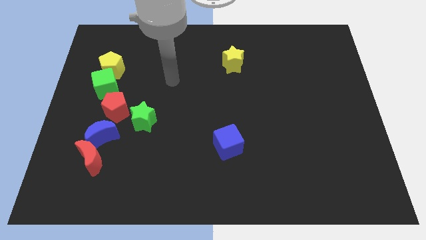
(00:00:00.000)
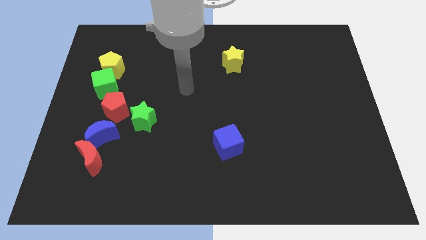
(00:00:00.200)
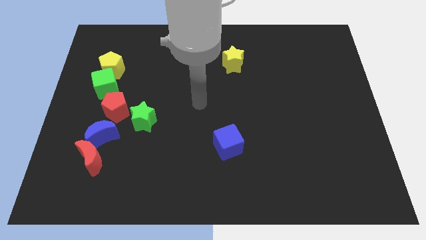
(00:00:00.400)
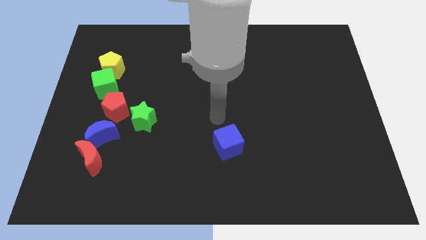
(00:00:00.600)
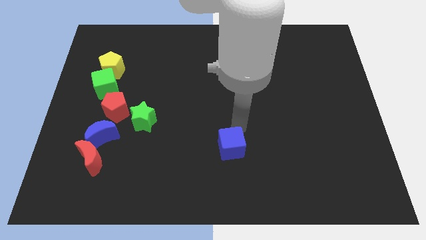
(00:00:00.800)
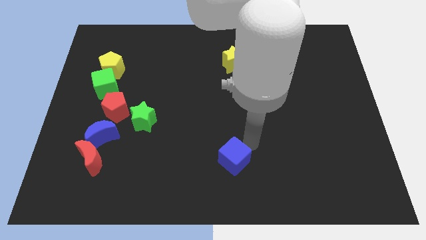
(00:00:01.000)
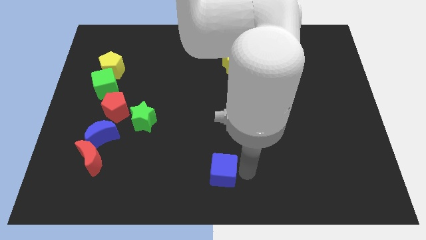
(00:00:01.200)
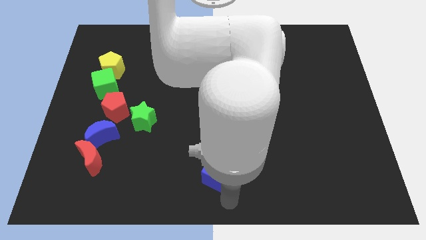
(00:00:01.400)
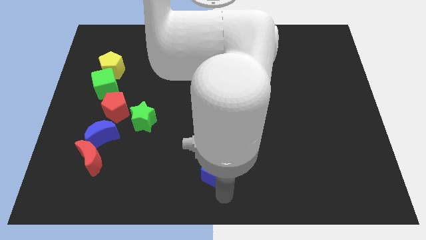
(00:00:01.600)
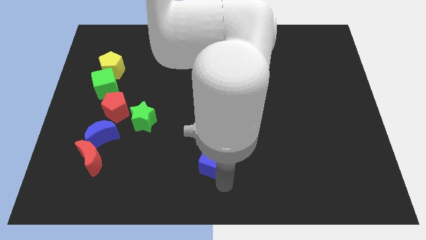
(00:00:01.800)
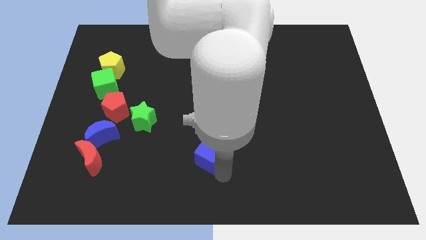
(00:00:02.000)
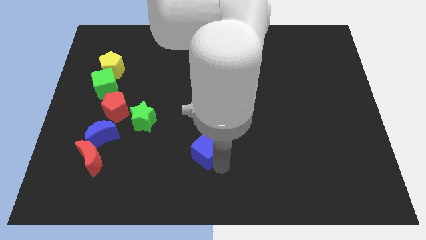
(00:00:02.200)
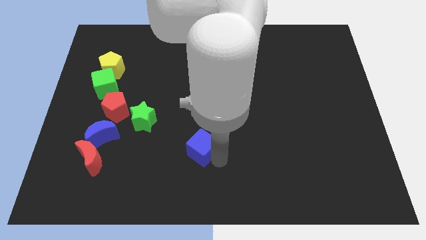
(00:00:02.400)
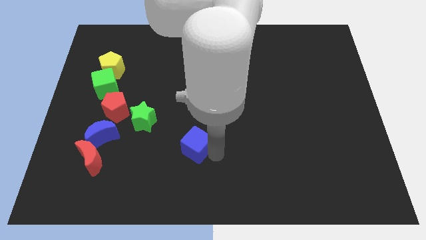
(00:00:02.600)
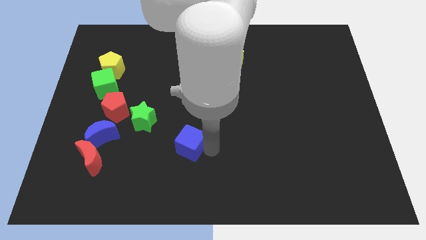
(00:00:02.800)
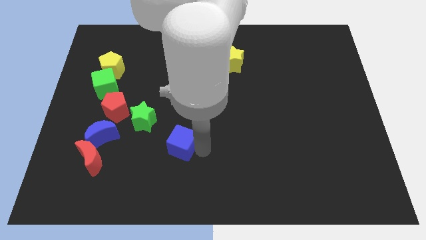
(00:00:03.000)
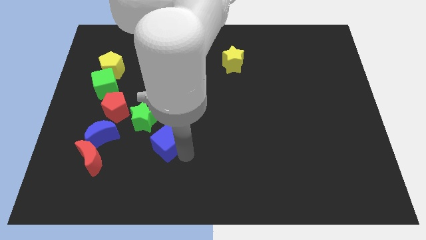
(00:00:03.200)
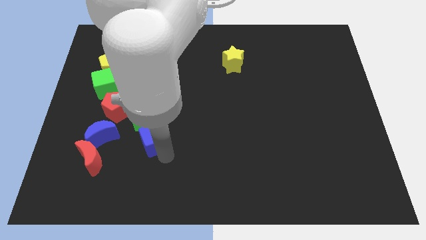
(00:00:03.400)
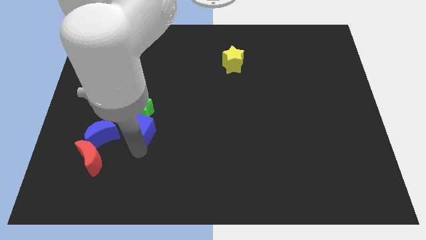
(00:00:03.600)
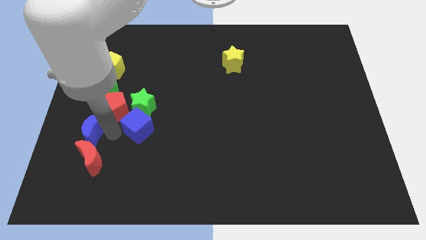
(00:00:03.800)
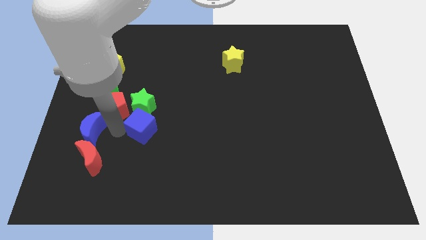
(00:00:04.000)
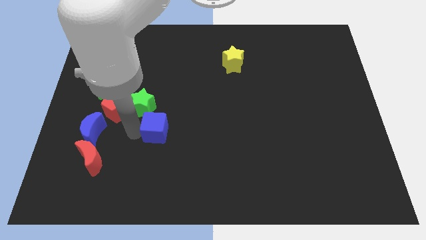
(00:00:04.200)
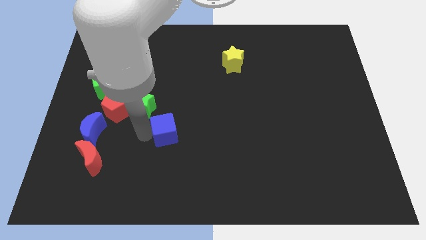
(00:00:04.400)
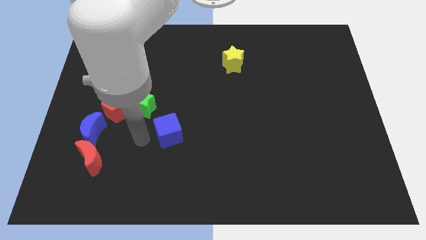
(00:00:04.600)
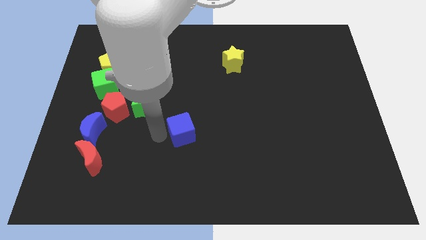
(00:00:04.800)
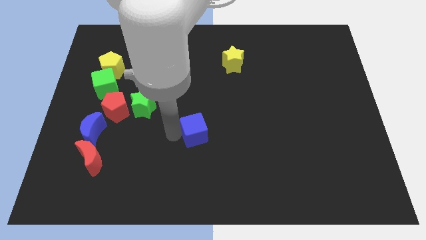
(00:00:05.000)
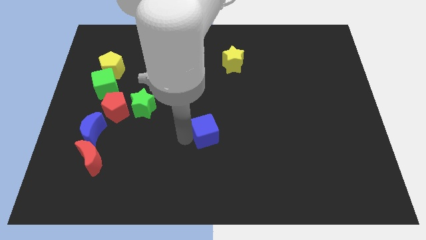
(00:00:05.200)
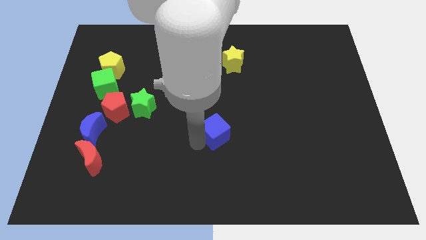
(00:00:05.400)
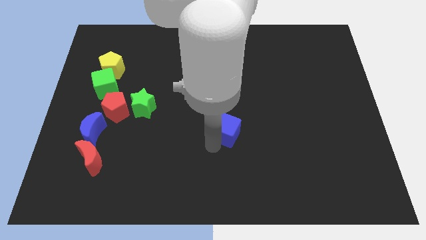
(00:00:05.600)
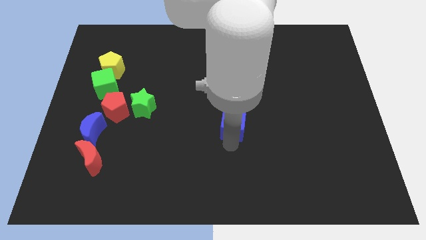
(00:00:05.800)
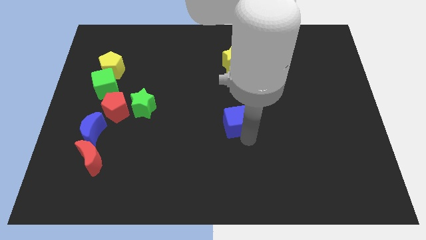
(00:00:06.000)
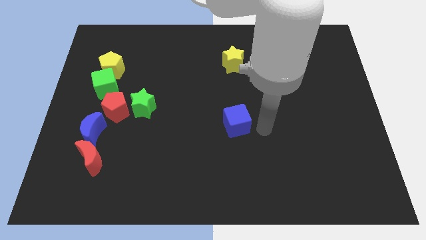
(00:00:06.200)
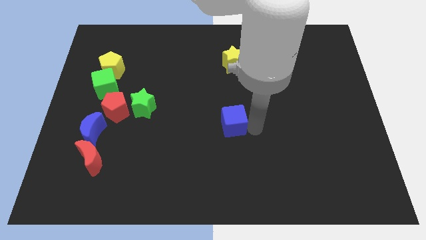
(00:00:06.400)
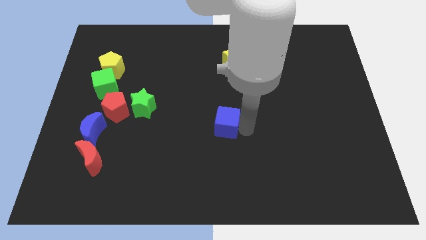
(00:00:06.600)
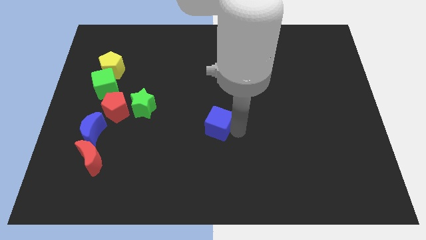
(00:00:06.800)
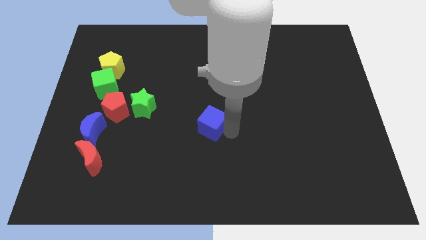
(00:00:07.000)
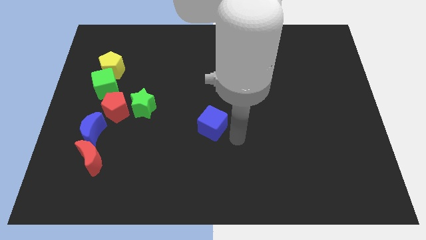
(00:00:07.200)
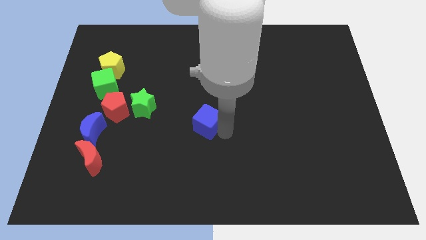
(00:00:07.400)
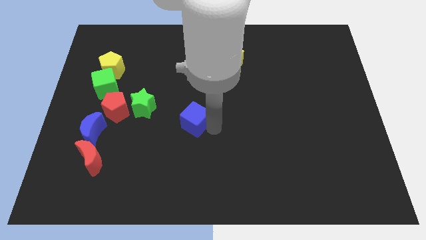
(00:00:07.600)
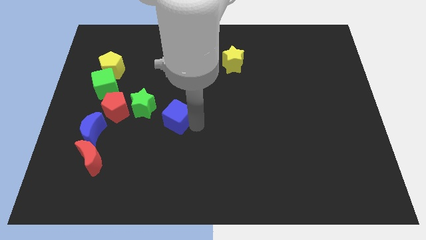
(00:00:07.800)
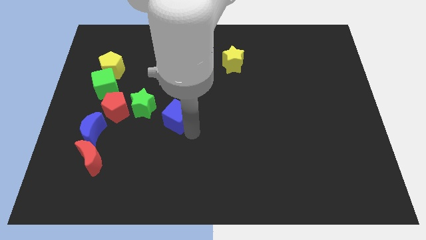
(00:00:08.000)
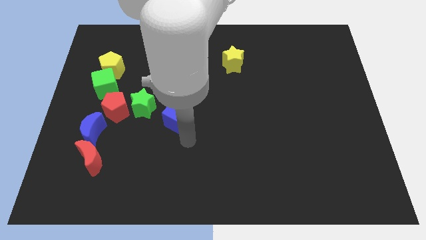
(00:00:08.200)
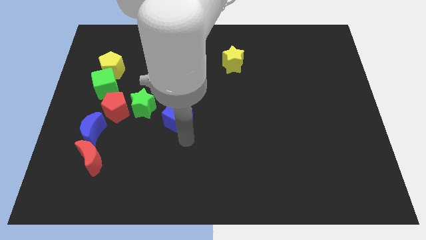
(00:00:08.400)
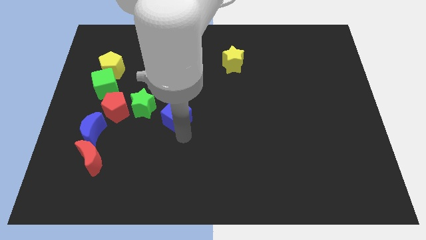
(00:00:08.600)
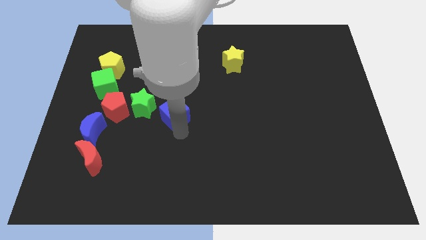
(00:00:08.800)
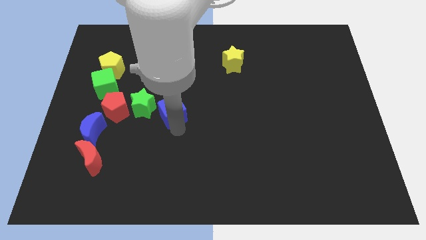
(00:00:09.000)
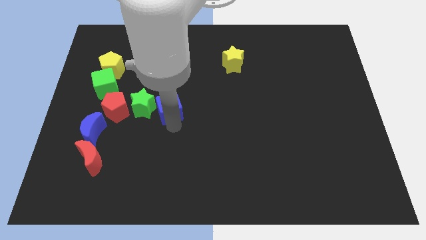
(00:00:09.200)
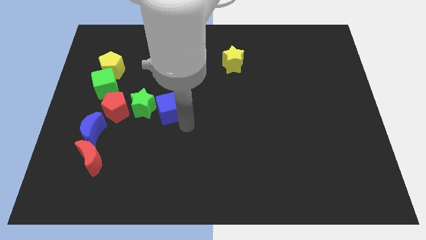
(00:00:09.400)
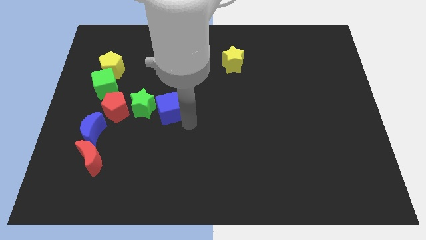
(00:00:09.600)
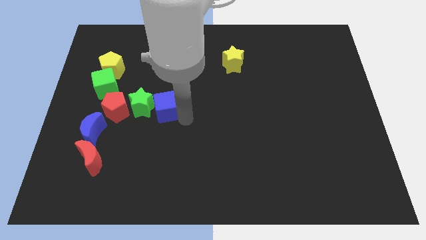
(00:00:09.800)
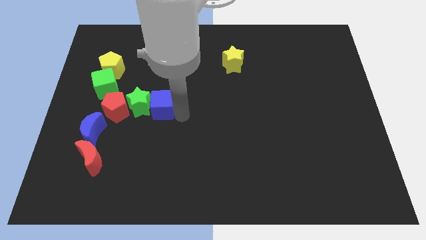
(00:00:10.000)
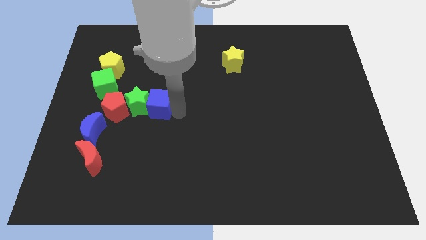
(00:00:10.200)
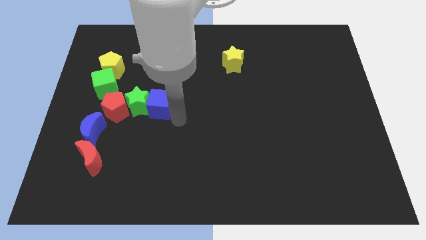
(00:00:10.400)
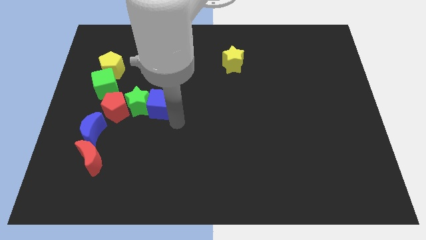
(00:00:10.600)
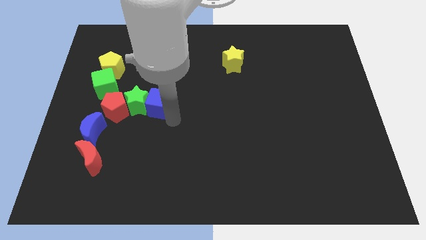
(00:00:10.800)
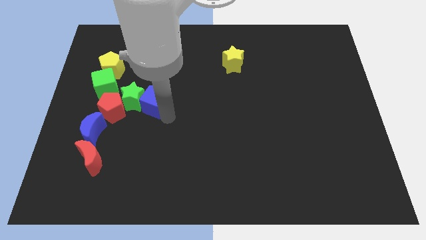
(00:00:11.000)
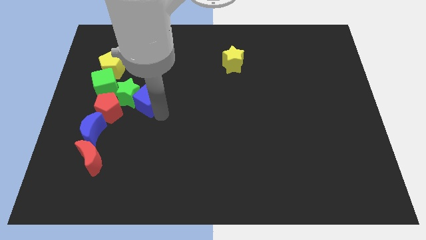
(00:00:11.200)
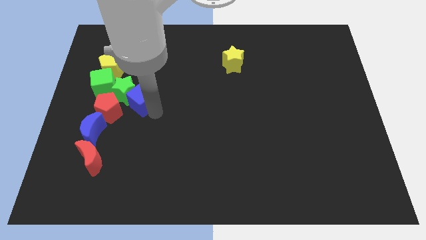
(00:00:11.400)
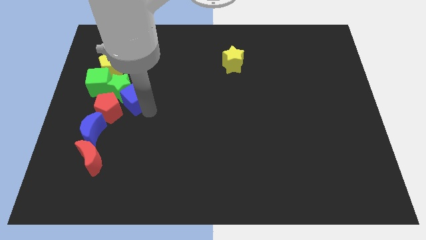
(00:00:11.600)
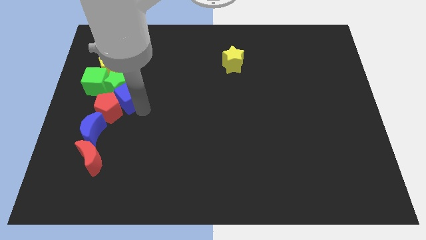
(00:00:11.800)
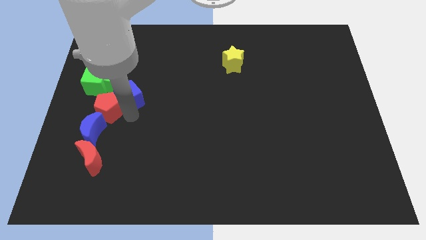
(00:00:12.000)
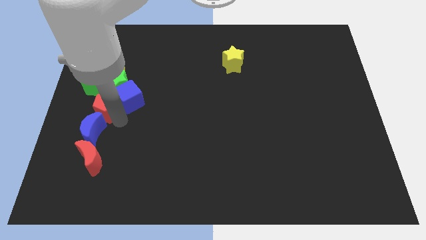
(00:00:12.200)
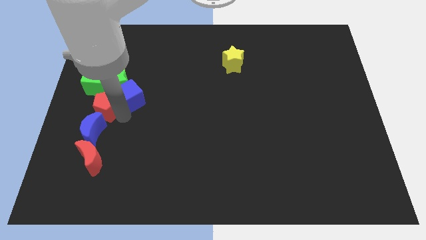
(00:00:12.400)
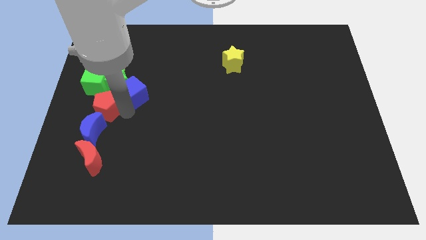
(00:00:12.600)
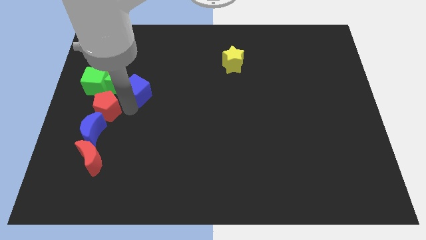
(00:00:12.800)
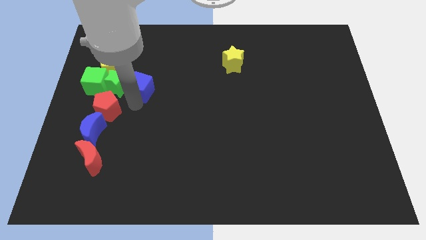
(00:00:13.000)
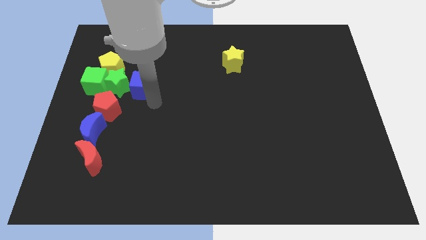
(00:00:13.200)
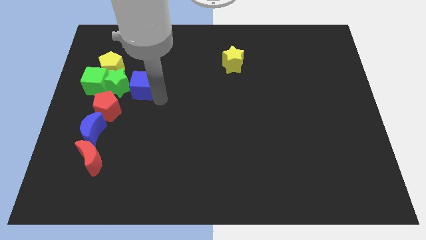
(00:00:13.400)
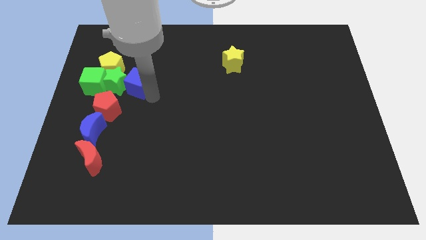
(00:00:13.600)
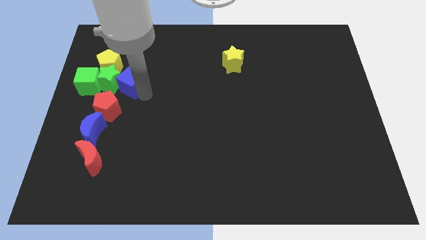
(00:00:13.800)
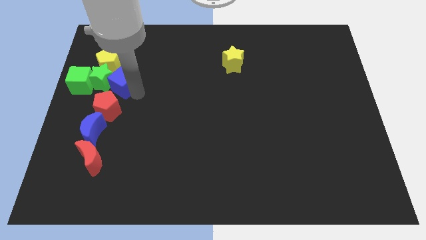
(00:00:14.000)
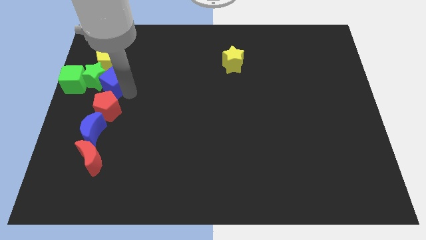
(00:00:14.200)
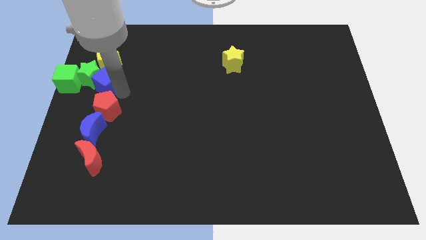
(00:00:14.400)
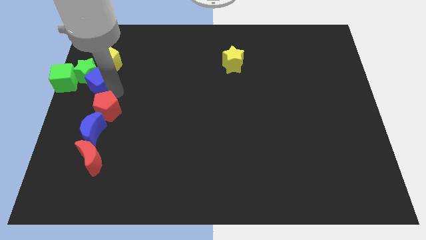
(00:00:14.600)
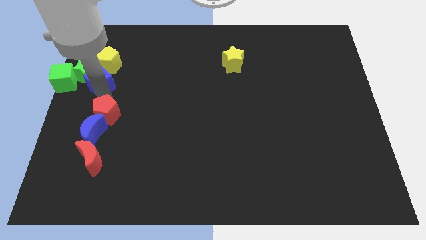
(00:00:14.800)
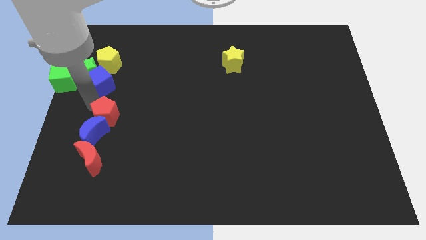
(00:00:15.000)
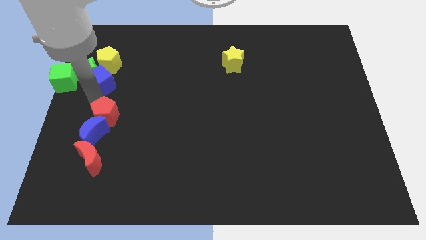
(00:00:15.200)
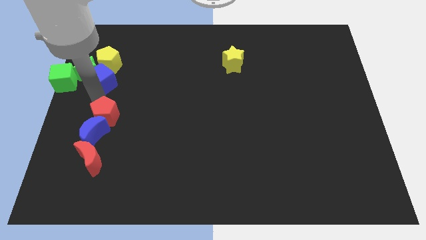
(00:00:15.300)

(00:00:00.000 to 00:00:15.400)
move the blue cube to the yellow pentagon
